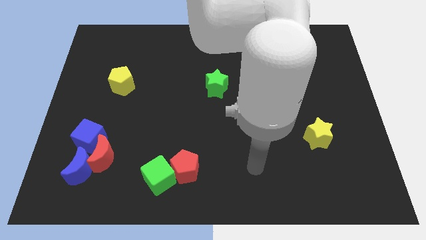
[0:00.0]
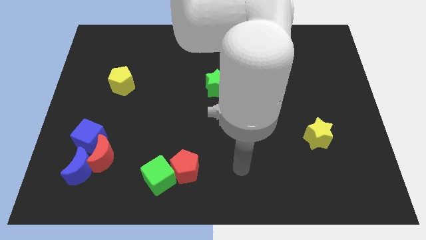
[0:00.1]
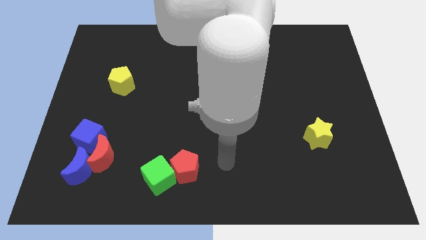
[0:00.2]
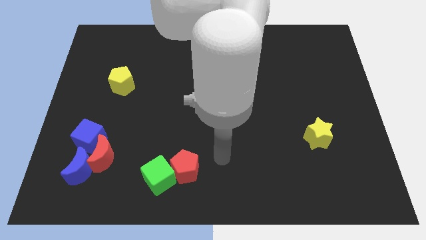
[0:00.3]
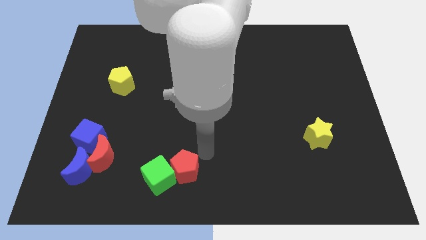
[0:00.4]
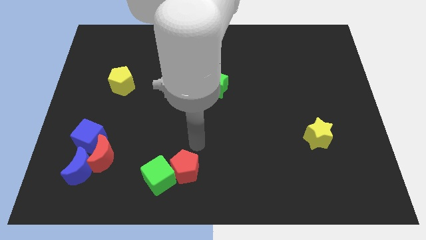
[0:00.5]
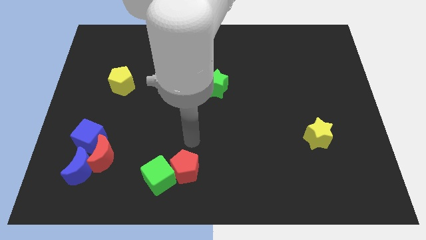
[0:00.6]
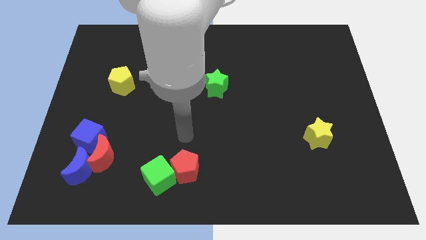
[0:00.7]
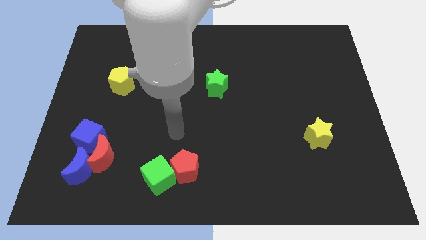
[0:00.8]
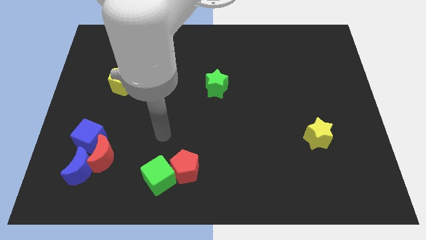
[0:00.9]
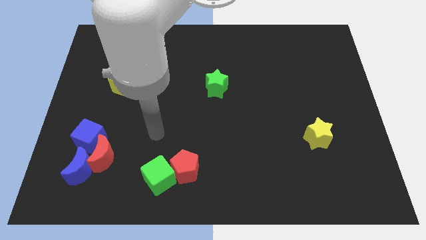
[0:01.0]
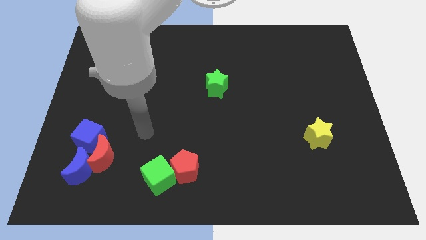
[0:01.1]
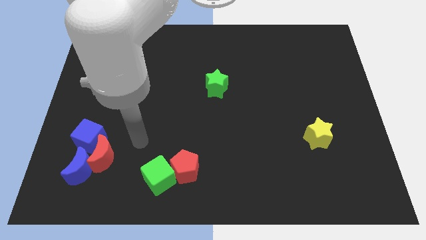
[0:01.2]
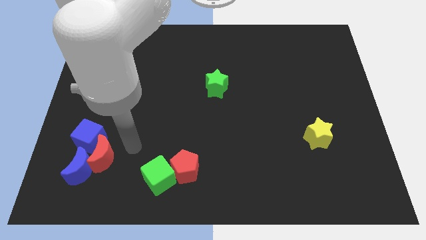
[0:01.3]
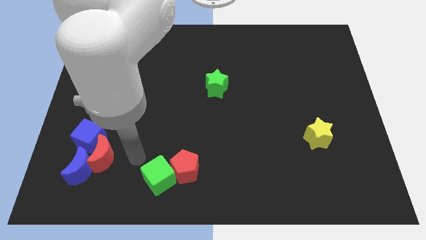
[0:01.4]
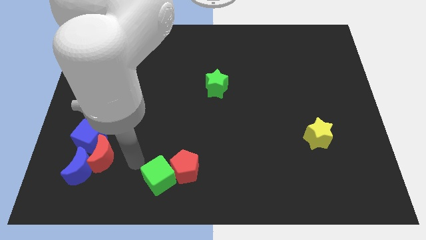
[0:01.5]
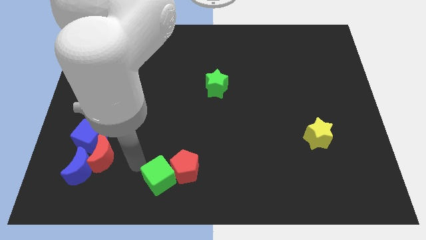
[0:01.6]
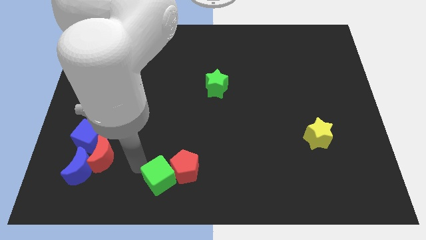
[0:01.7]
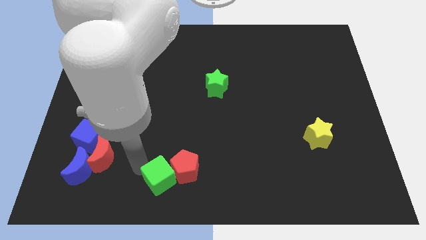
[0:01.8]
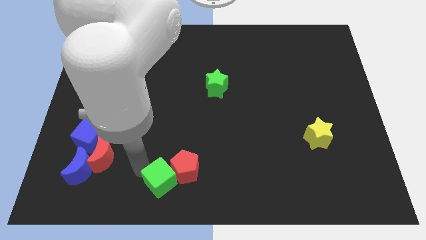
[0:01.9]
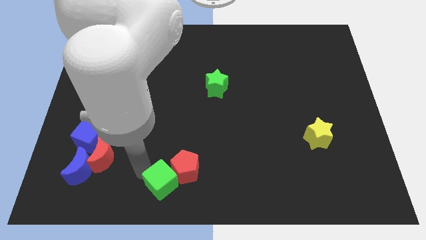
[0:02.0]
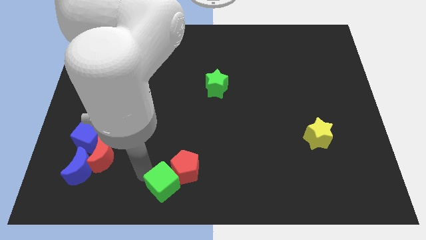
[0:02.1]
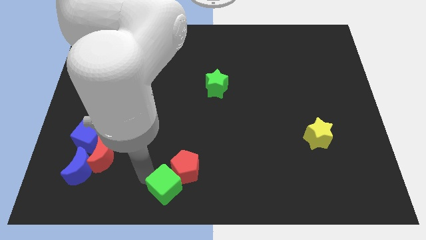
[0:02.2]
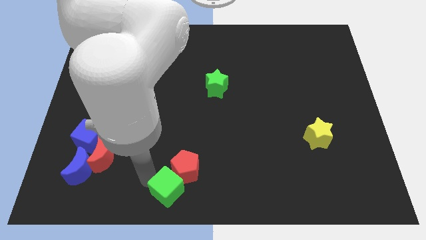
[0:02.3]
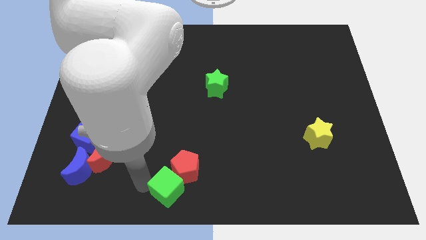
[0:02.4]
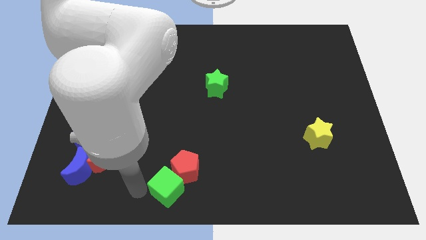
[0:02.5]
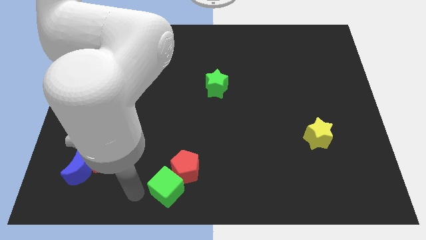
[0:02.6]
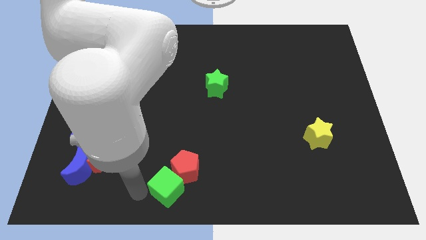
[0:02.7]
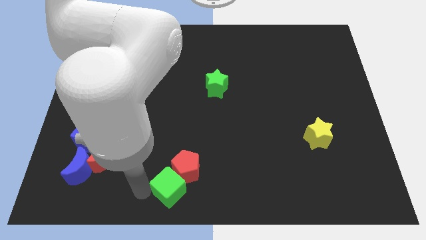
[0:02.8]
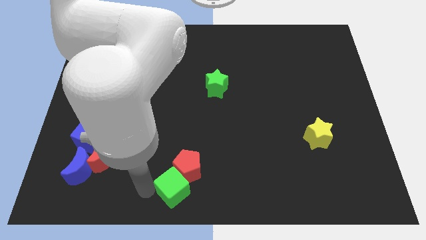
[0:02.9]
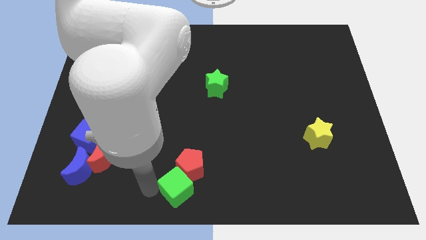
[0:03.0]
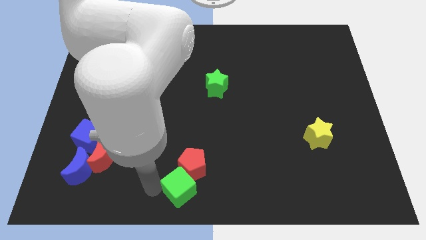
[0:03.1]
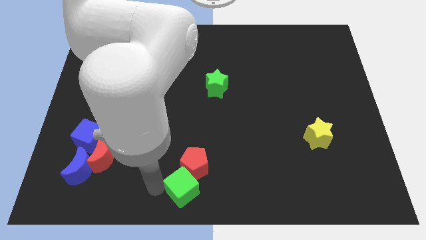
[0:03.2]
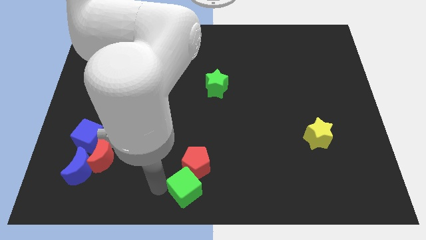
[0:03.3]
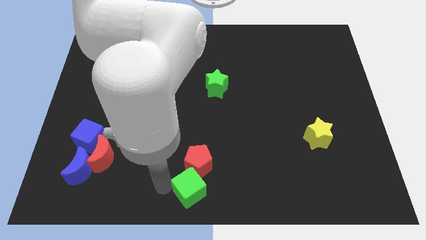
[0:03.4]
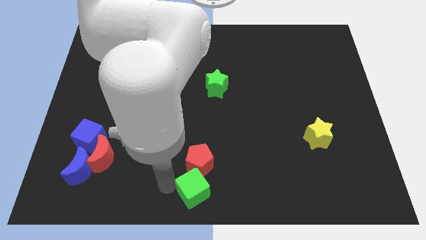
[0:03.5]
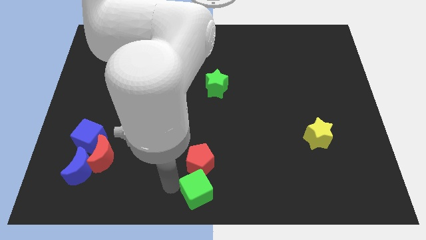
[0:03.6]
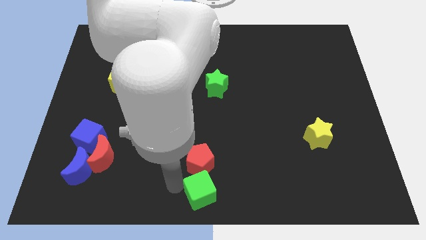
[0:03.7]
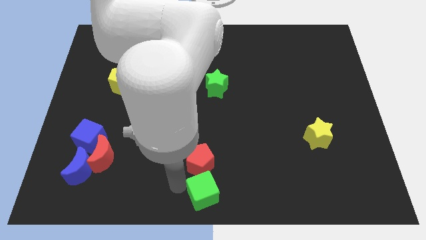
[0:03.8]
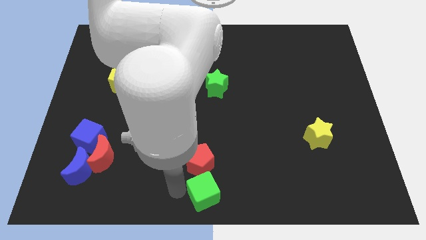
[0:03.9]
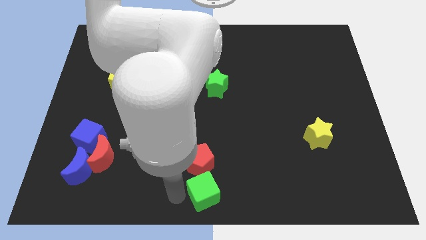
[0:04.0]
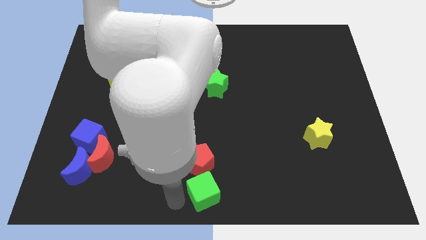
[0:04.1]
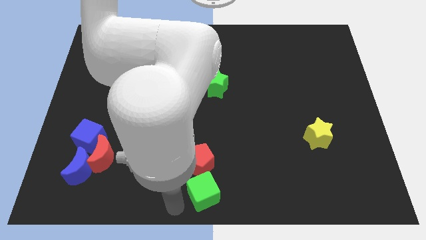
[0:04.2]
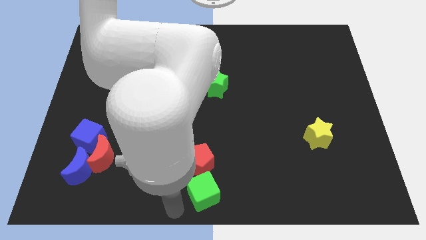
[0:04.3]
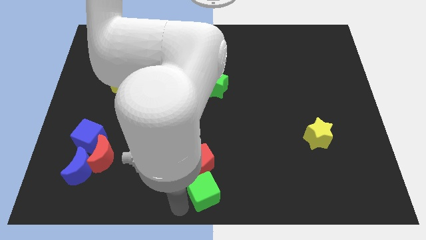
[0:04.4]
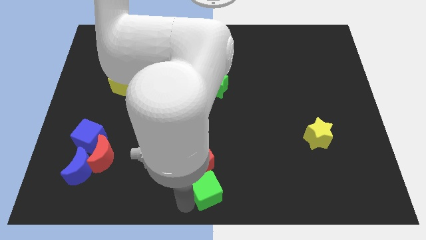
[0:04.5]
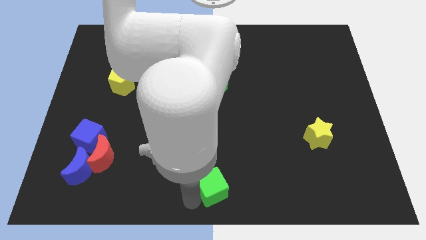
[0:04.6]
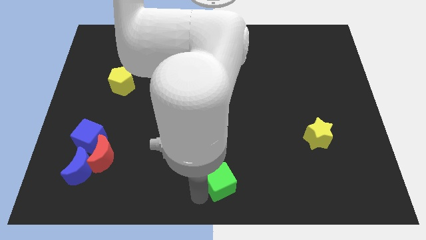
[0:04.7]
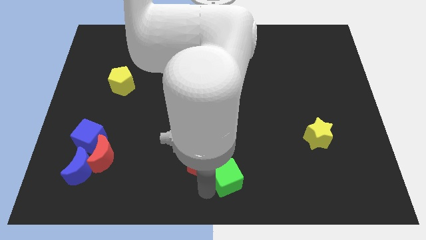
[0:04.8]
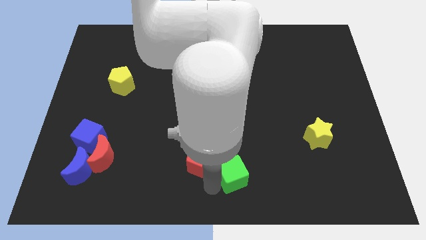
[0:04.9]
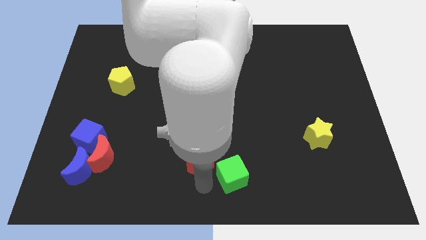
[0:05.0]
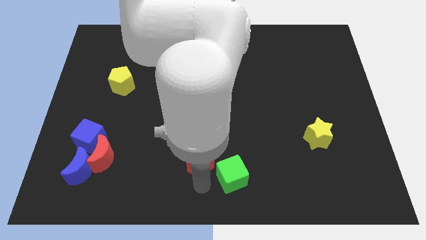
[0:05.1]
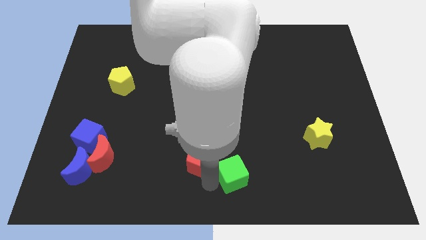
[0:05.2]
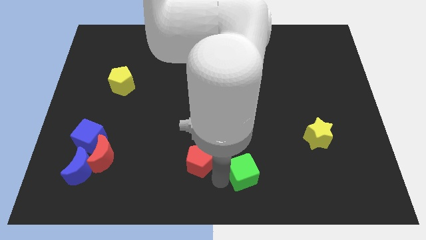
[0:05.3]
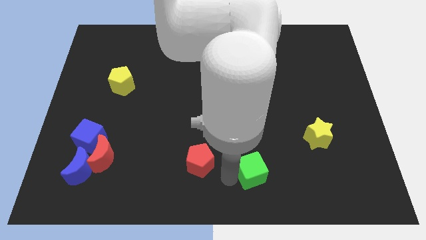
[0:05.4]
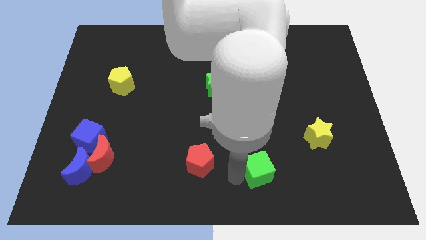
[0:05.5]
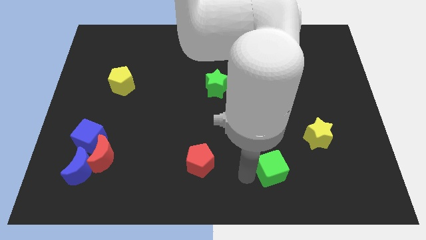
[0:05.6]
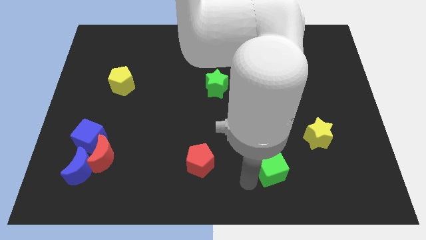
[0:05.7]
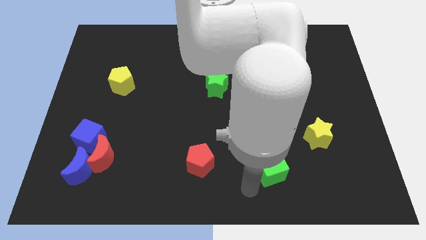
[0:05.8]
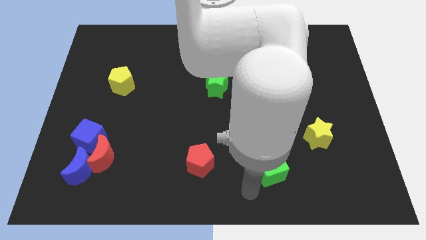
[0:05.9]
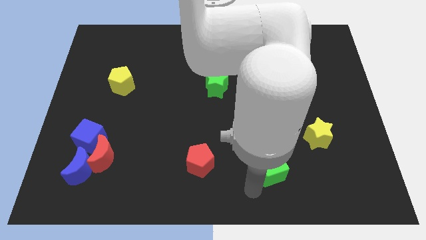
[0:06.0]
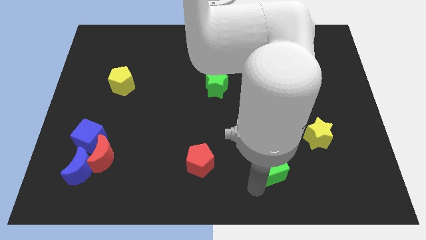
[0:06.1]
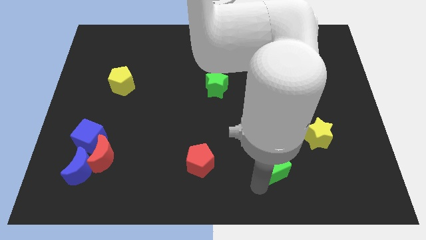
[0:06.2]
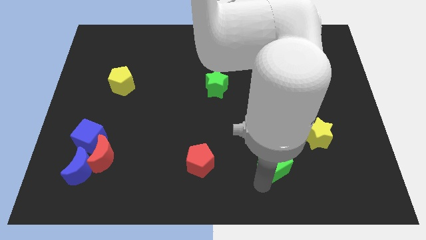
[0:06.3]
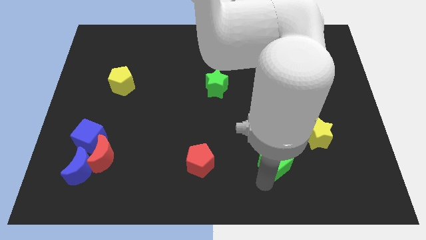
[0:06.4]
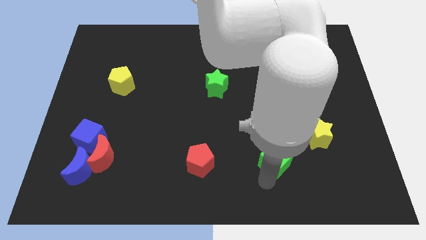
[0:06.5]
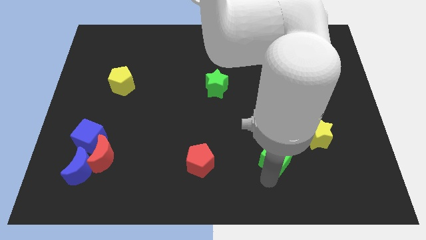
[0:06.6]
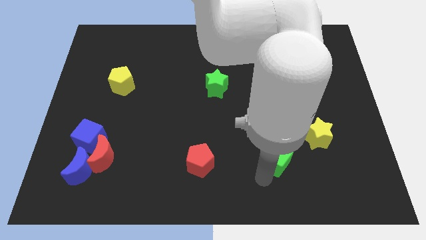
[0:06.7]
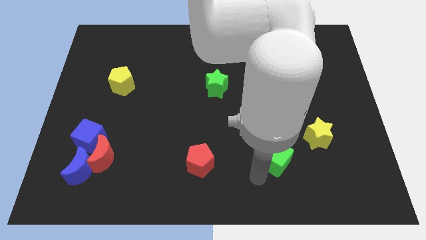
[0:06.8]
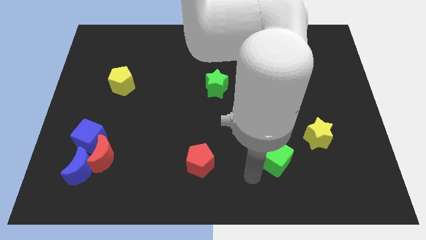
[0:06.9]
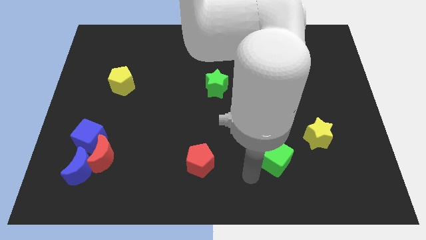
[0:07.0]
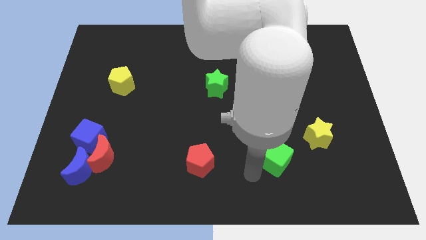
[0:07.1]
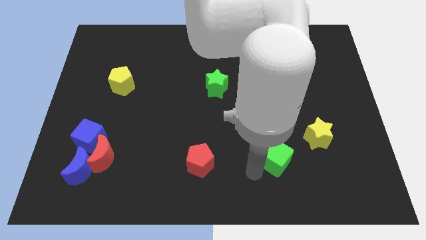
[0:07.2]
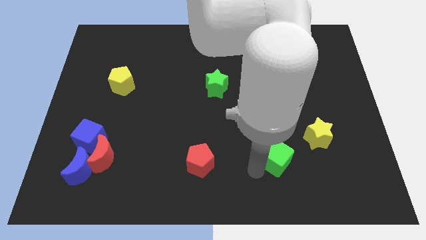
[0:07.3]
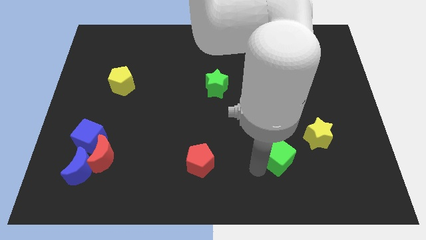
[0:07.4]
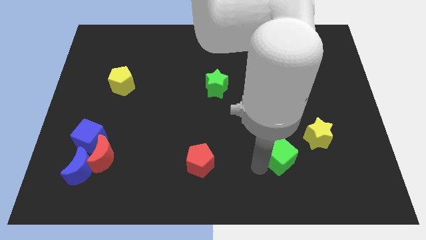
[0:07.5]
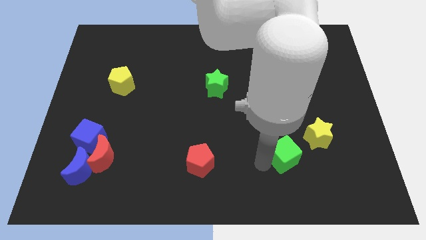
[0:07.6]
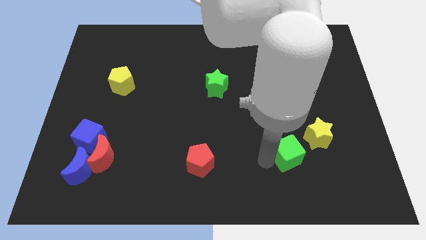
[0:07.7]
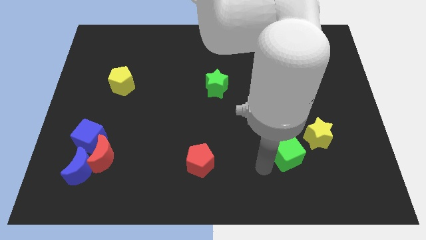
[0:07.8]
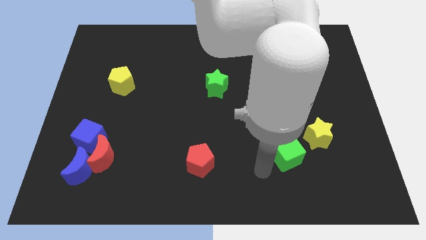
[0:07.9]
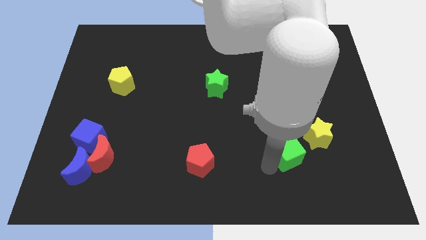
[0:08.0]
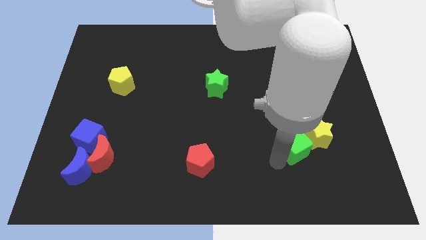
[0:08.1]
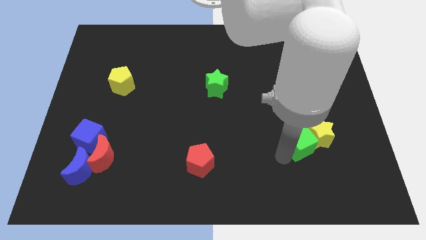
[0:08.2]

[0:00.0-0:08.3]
slide the green cube towards the yellow star

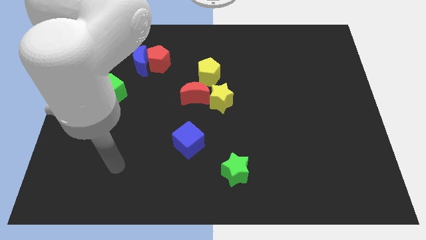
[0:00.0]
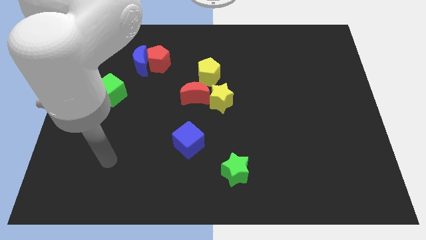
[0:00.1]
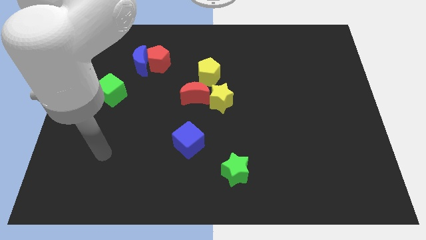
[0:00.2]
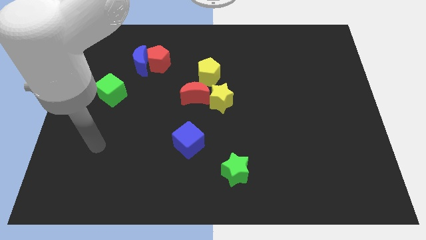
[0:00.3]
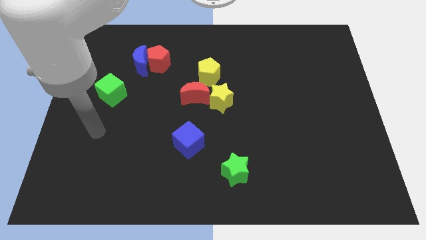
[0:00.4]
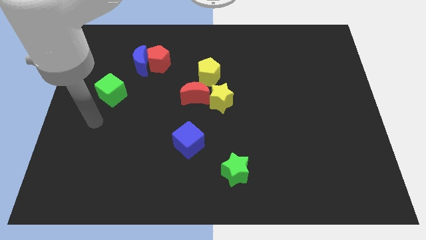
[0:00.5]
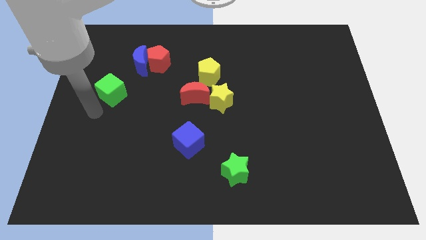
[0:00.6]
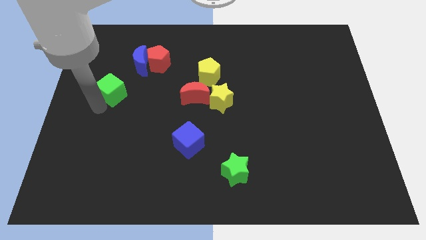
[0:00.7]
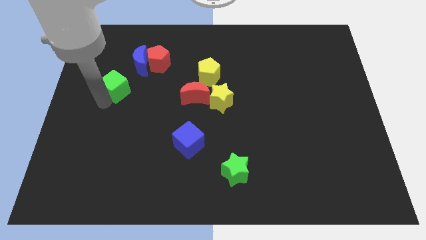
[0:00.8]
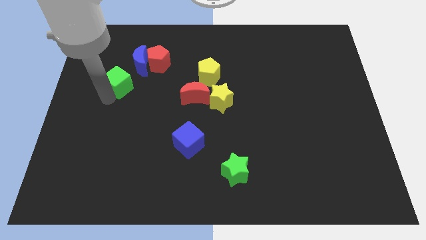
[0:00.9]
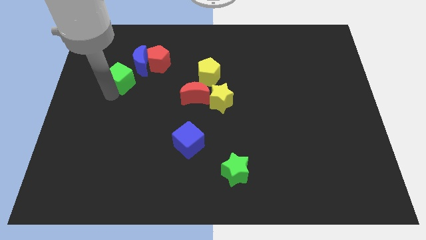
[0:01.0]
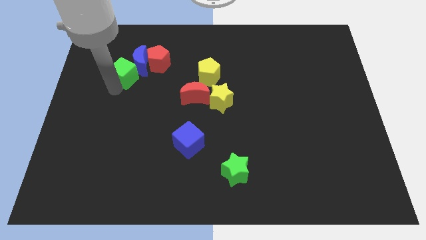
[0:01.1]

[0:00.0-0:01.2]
put the green cube to the blue moon
